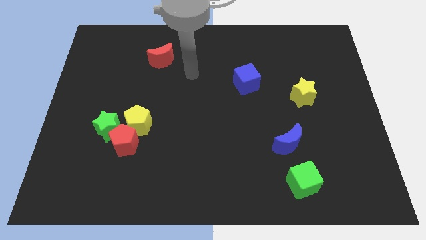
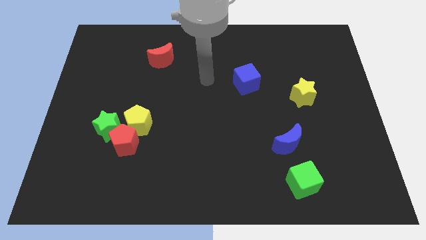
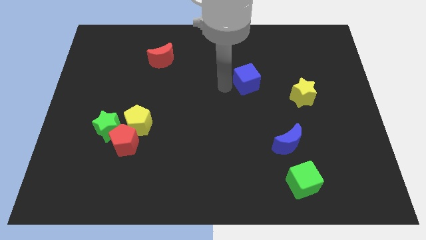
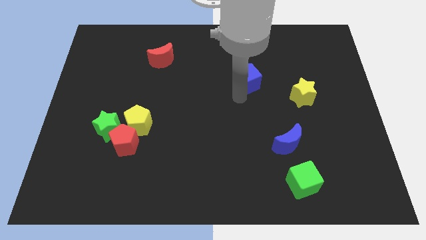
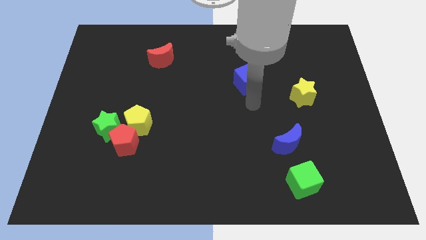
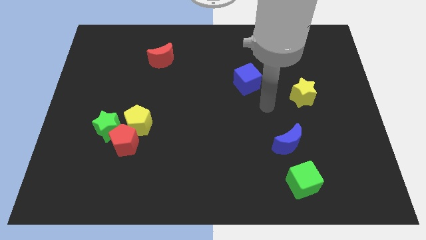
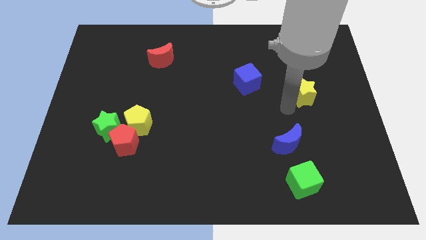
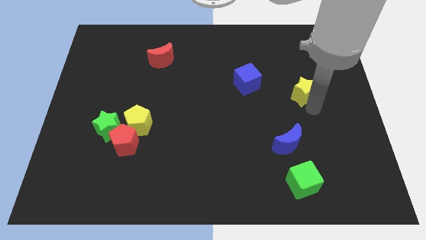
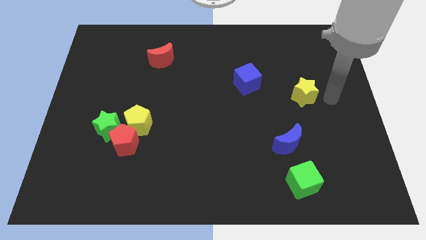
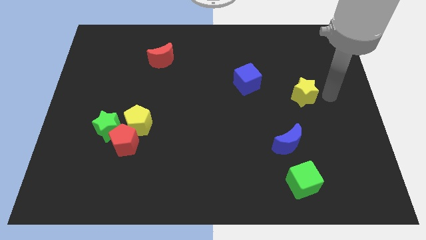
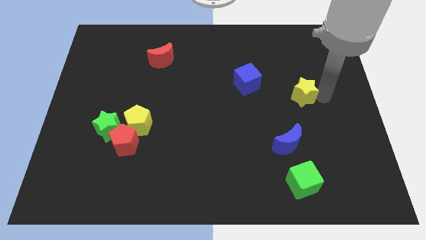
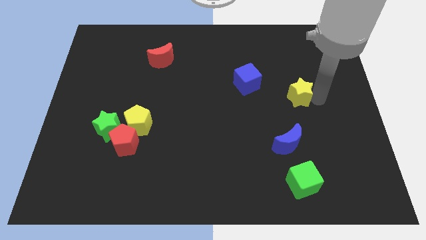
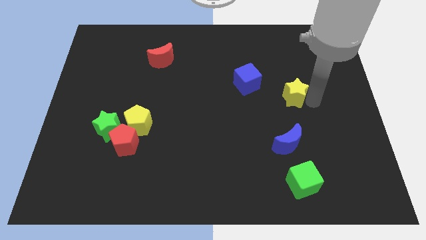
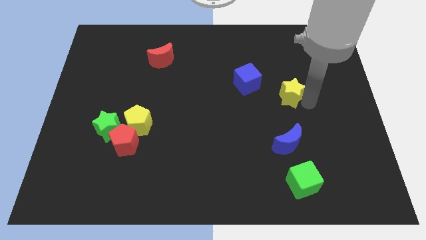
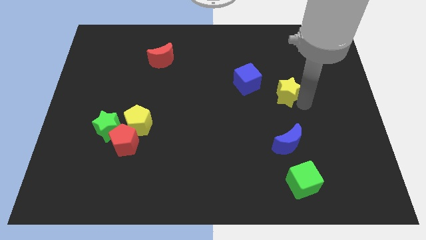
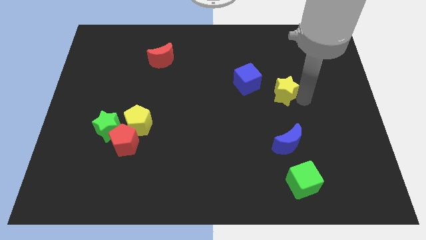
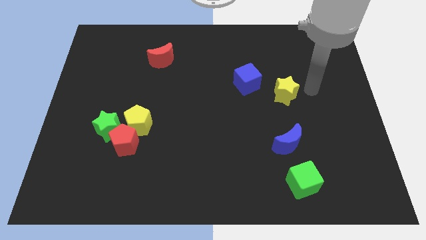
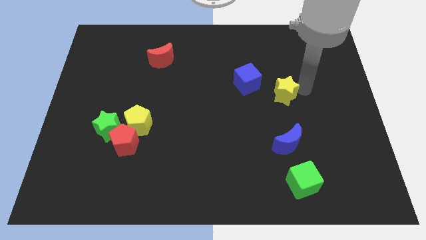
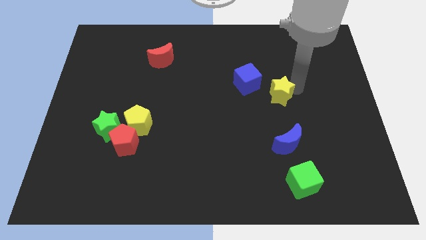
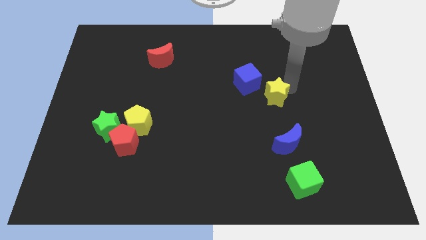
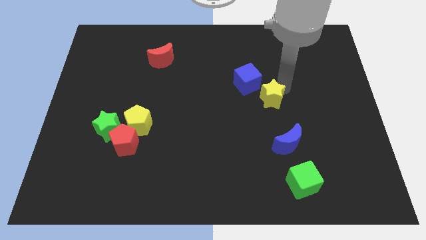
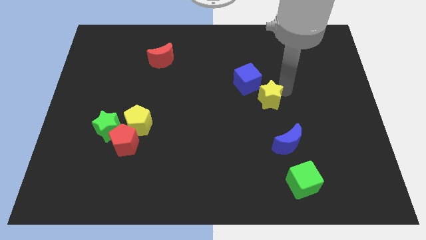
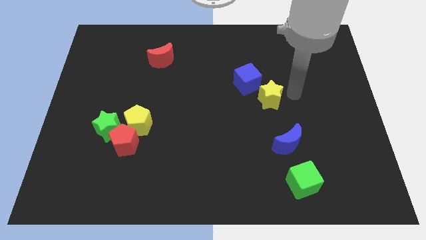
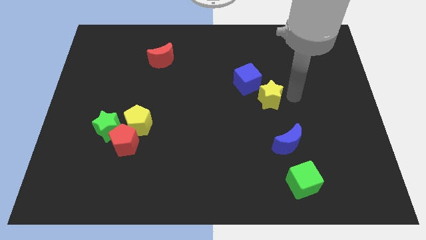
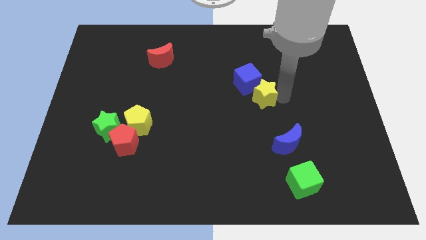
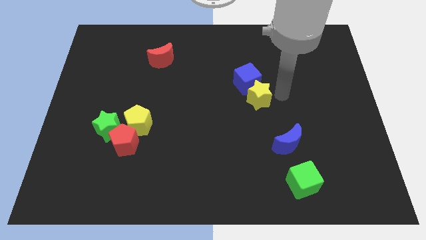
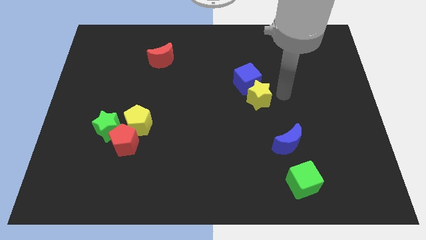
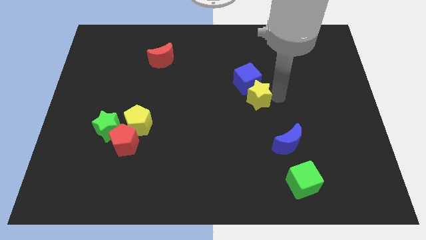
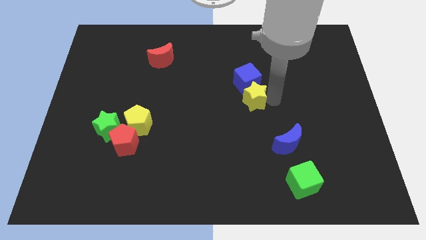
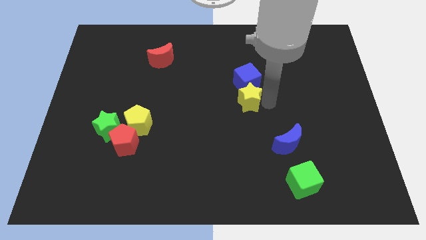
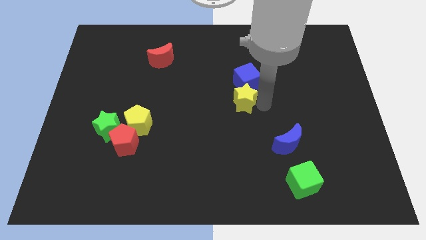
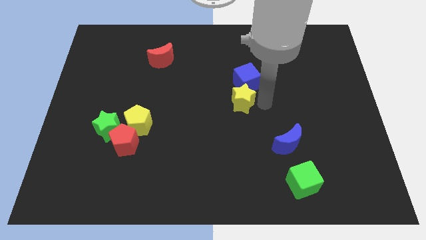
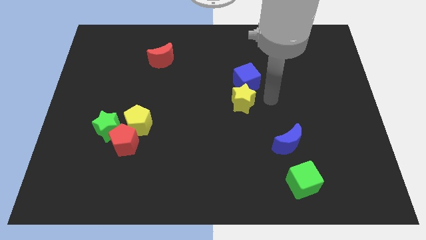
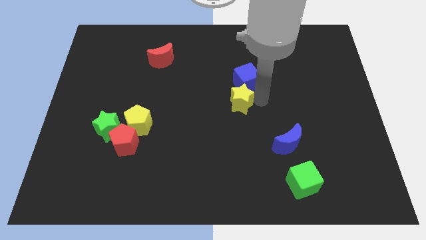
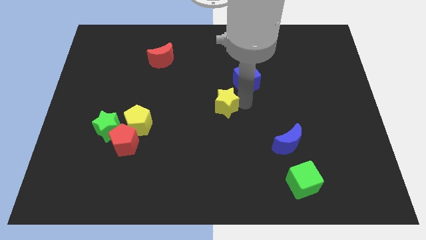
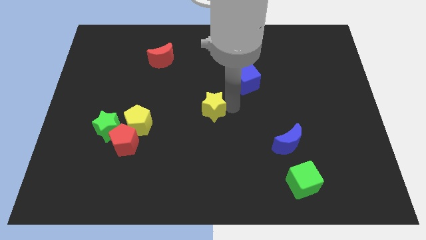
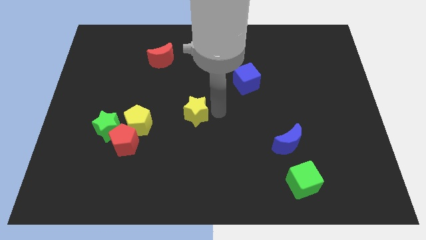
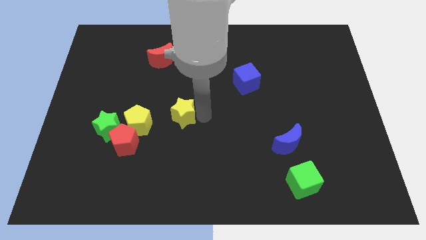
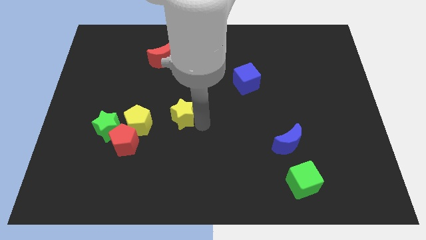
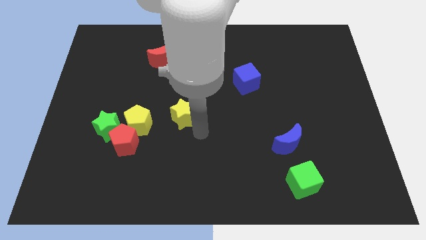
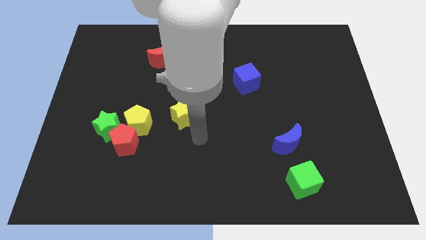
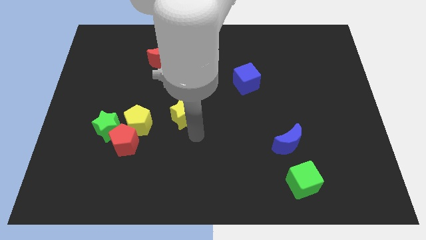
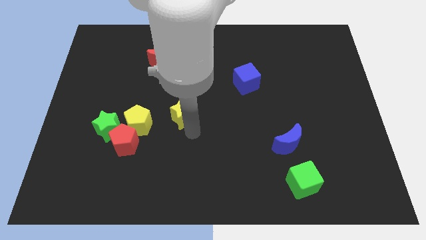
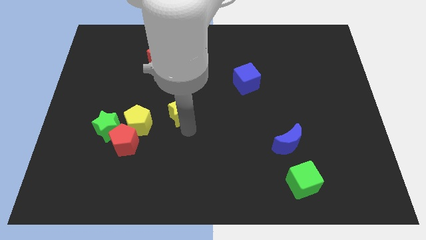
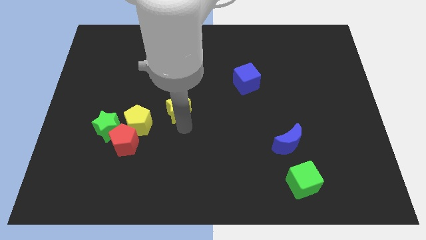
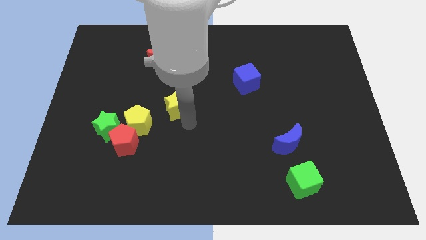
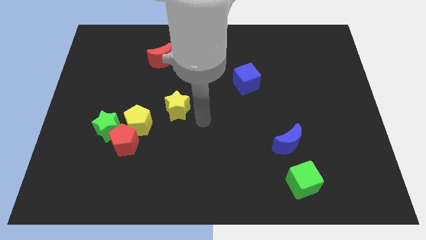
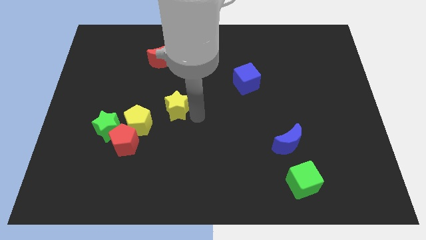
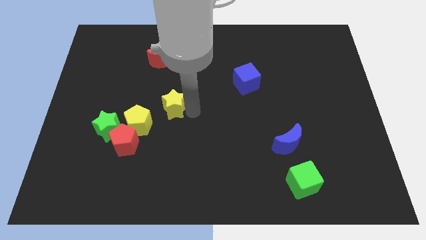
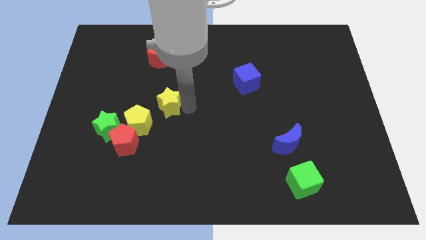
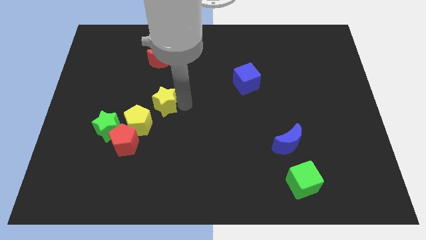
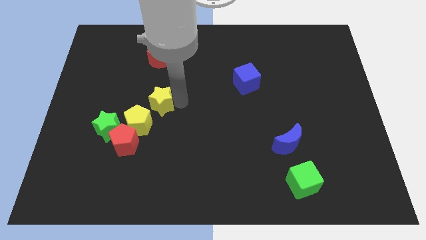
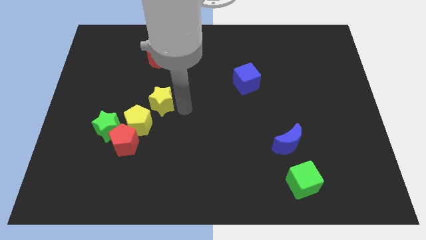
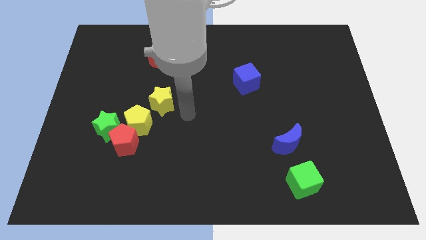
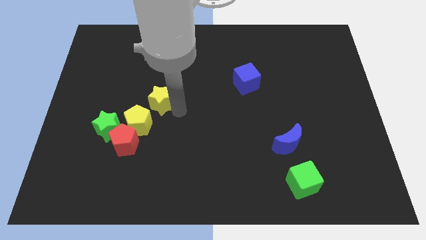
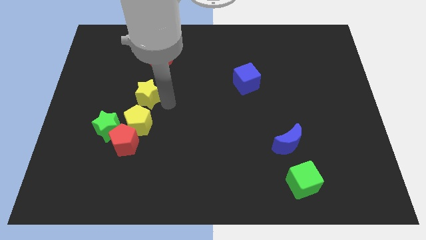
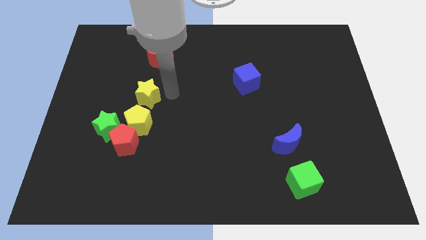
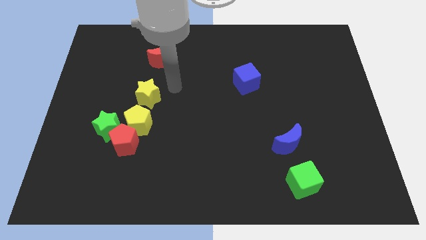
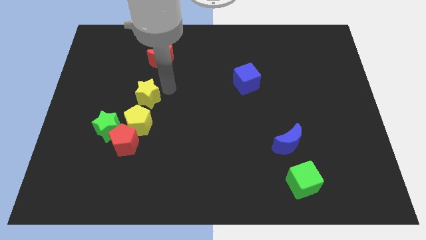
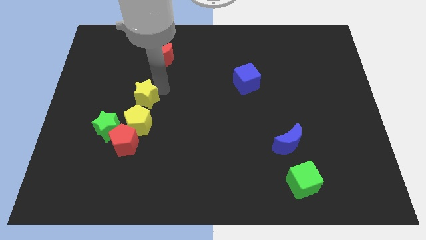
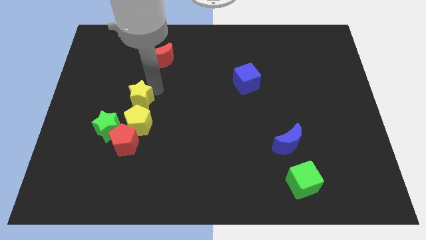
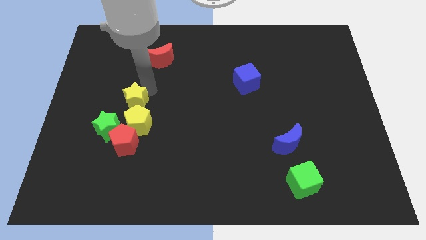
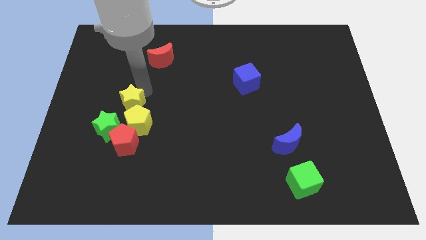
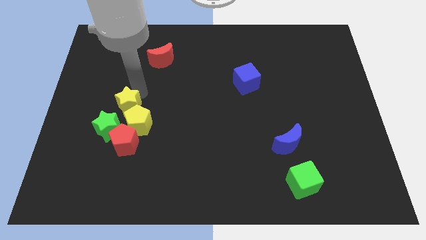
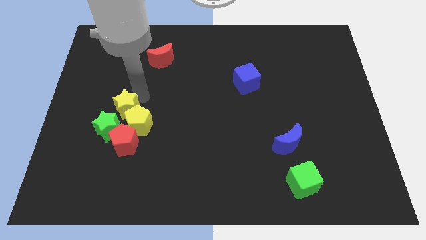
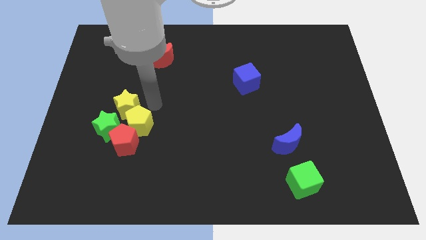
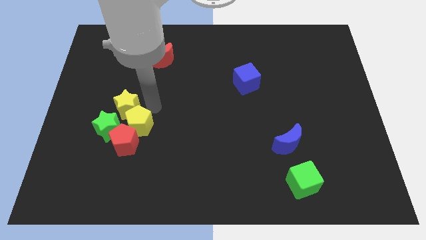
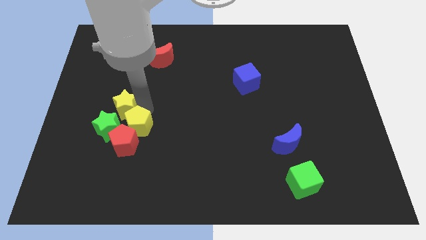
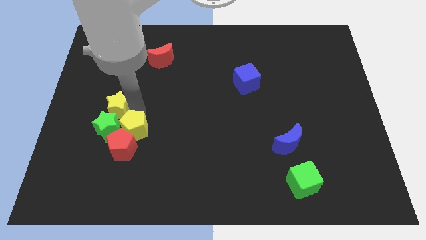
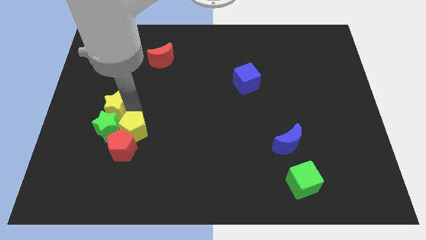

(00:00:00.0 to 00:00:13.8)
push the yellow star to the top left side of the green star

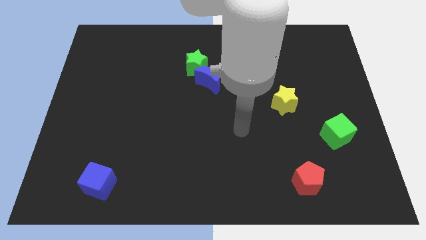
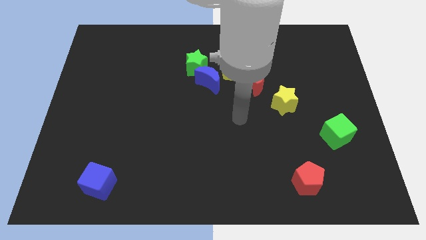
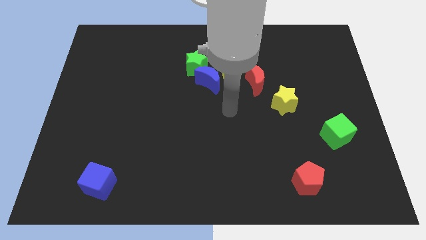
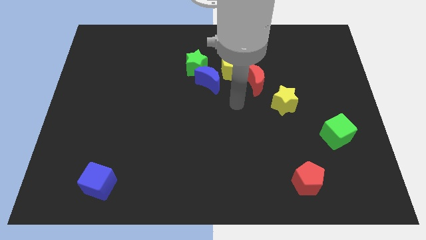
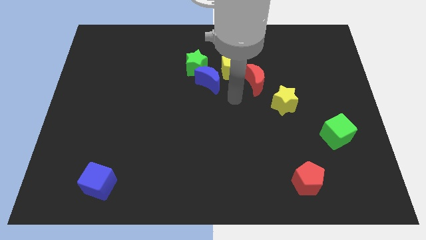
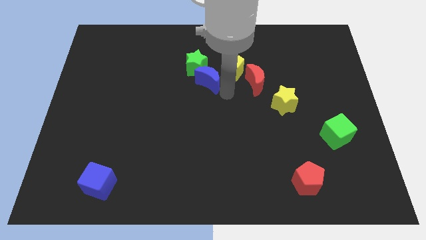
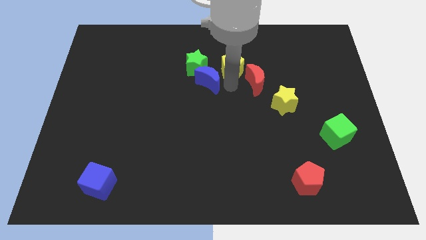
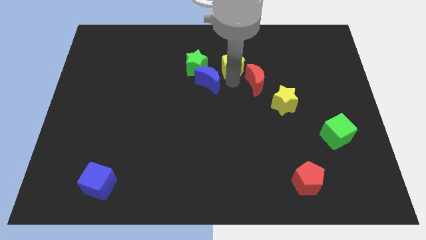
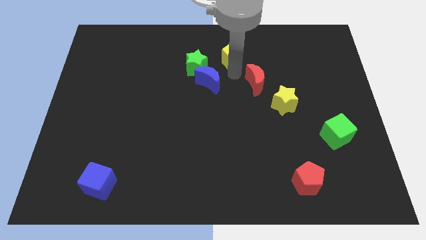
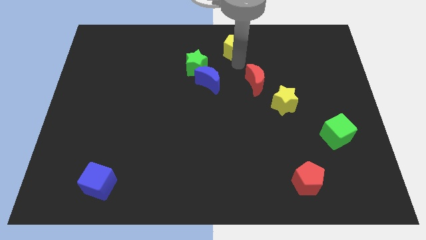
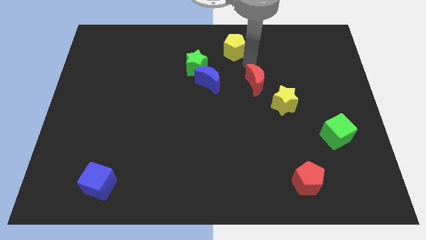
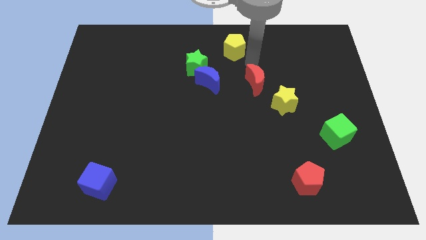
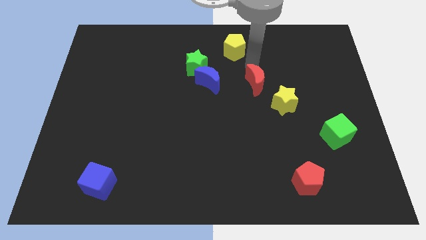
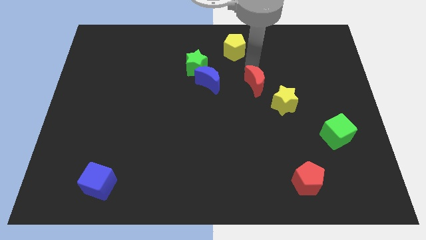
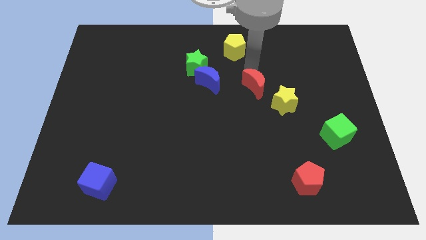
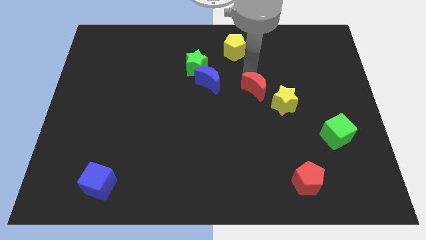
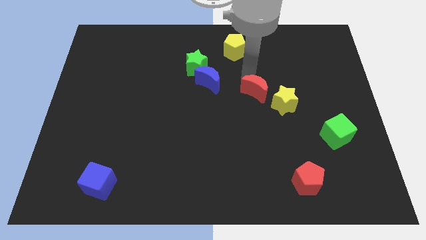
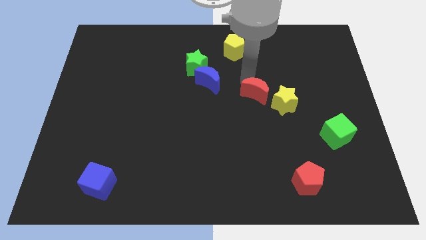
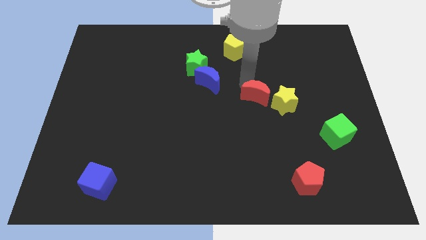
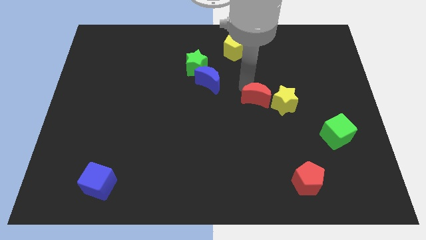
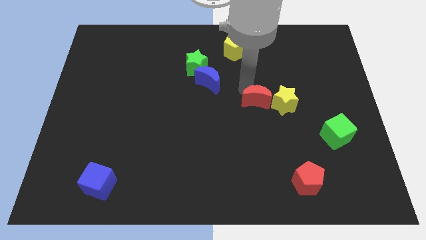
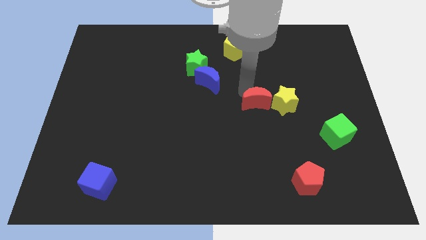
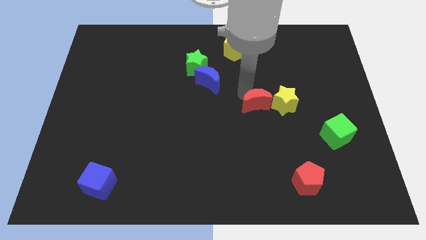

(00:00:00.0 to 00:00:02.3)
slide the red moon to the bottom left of the yellow star
